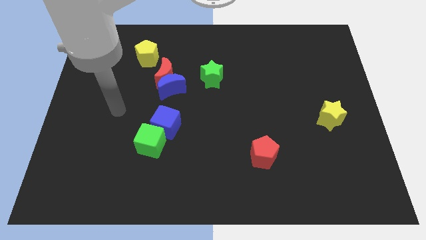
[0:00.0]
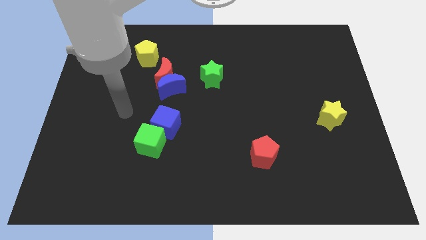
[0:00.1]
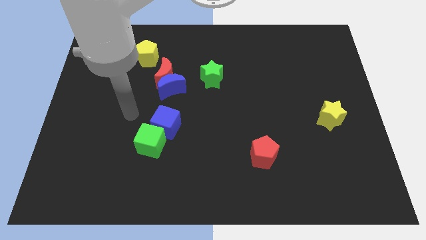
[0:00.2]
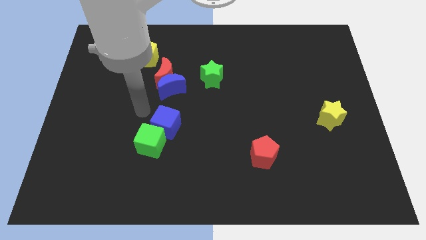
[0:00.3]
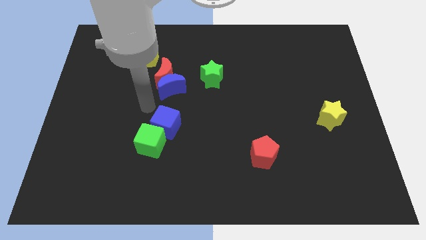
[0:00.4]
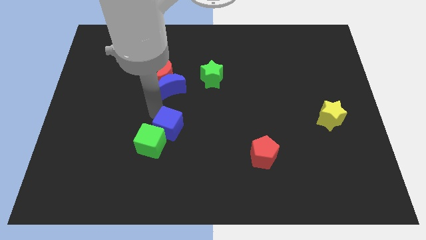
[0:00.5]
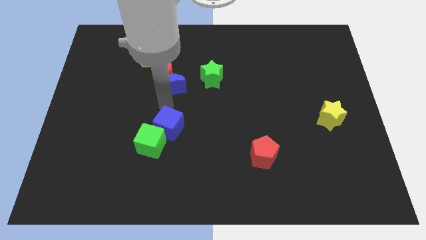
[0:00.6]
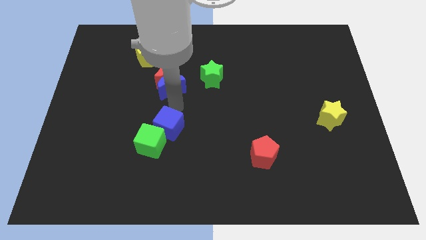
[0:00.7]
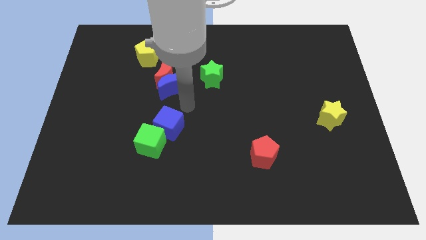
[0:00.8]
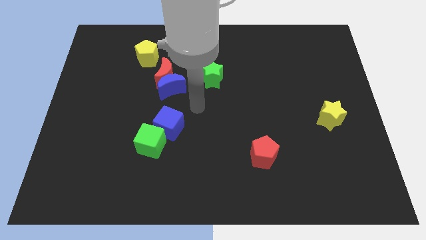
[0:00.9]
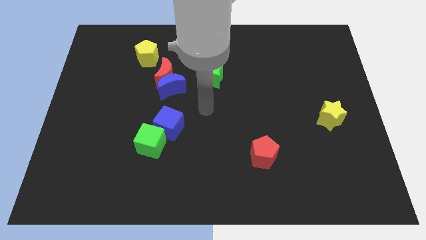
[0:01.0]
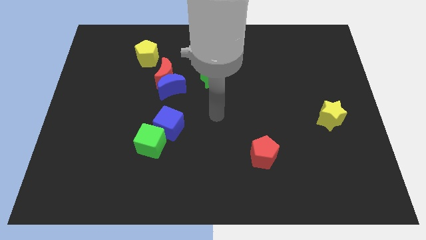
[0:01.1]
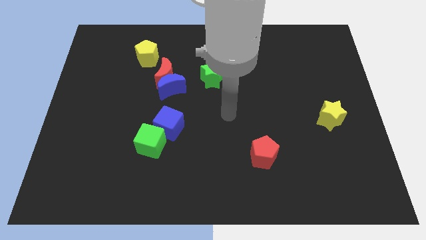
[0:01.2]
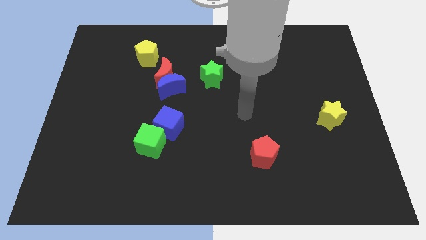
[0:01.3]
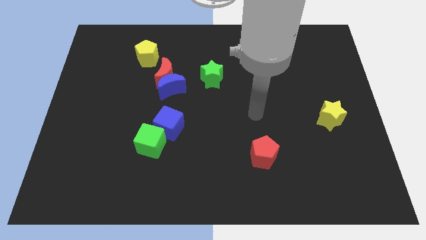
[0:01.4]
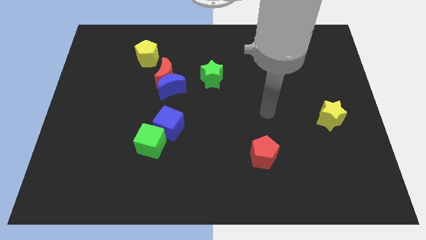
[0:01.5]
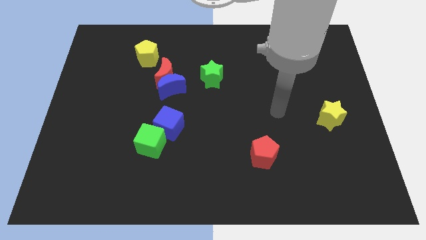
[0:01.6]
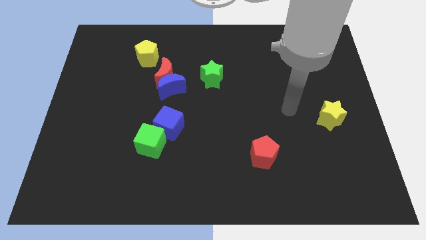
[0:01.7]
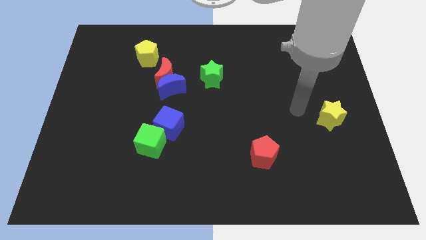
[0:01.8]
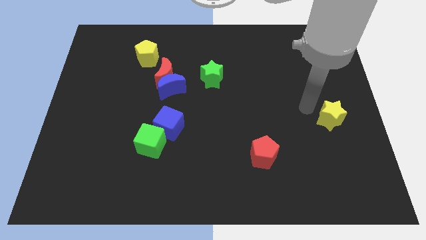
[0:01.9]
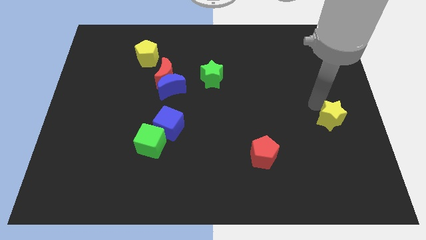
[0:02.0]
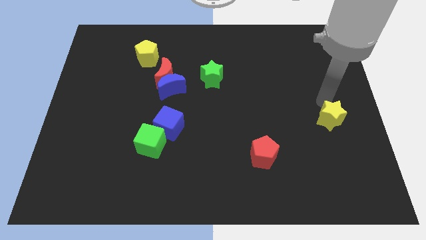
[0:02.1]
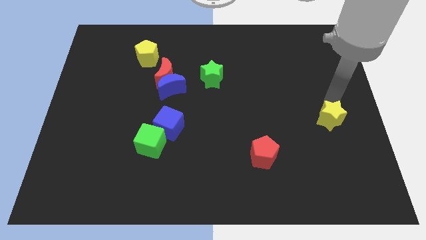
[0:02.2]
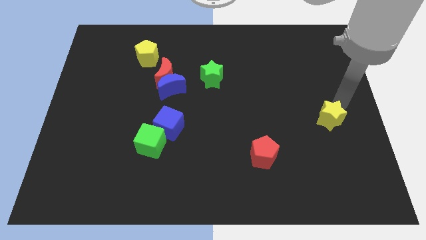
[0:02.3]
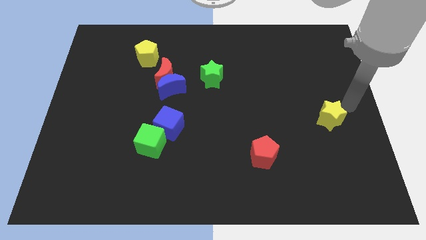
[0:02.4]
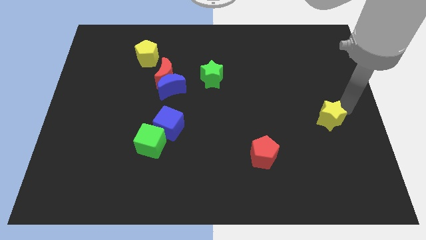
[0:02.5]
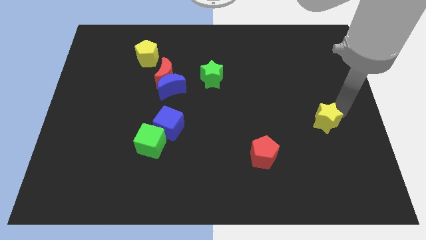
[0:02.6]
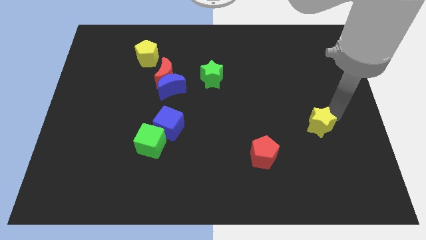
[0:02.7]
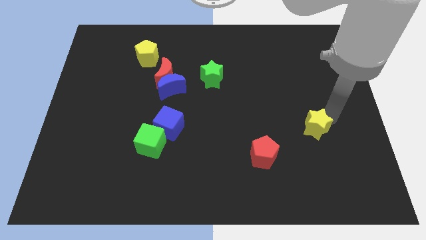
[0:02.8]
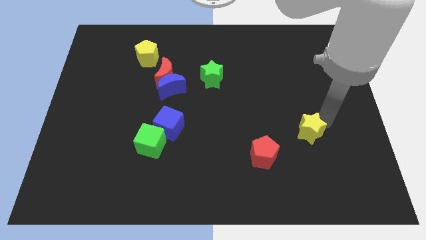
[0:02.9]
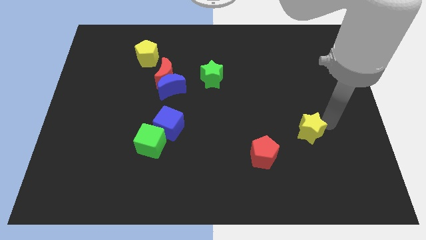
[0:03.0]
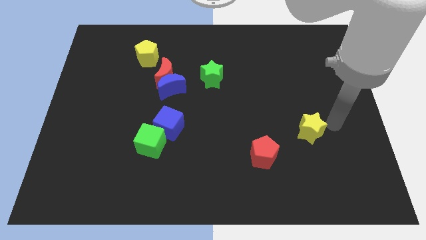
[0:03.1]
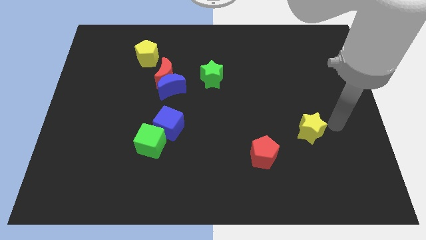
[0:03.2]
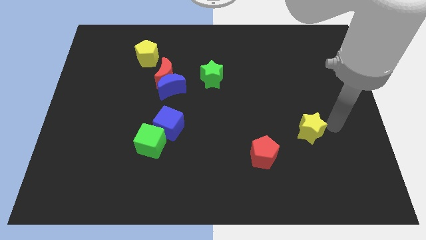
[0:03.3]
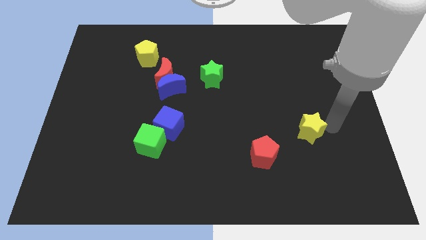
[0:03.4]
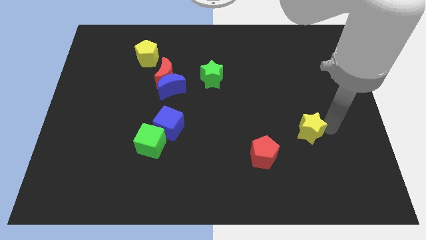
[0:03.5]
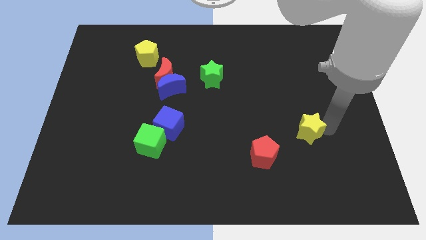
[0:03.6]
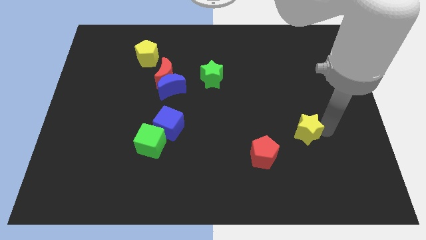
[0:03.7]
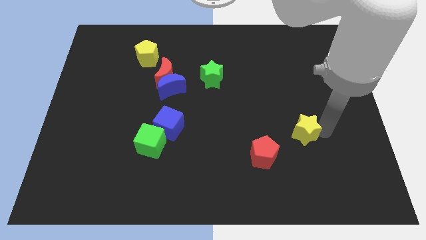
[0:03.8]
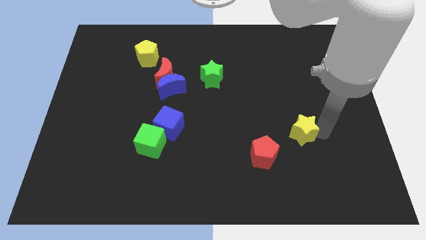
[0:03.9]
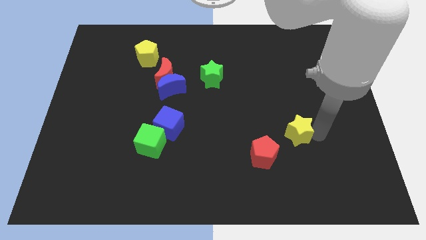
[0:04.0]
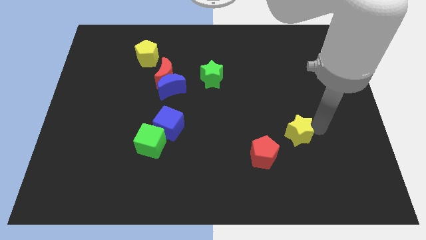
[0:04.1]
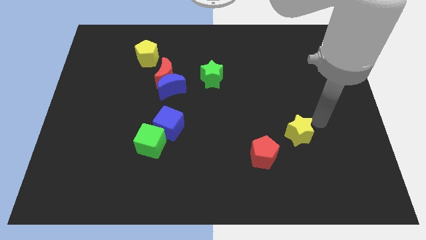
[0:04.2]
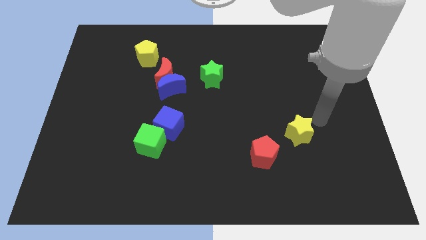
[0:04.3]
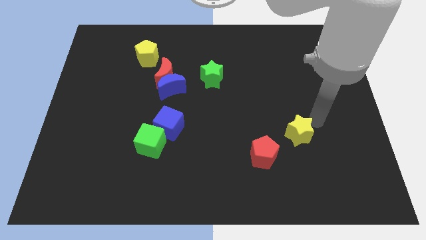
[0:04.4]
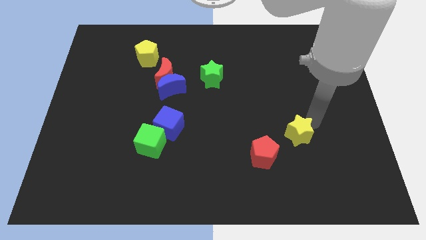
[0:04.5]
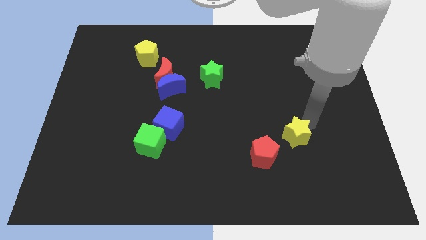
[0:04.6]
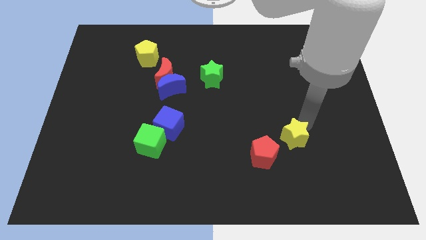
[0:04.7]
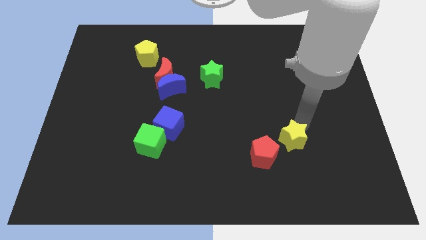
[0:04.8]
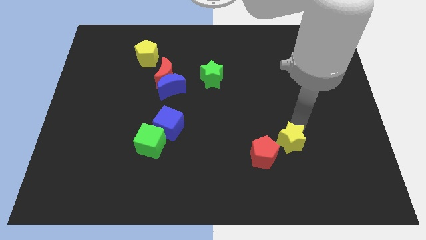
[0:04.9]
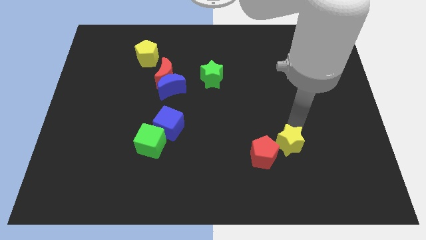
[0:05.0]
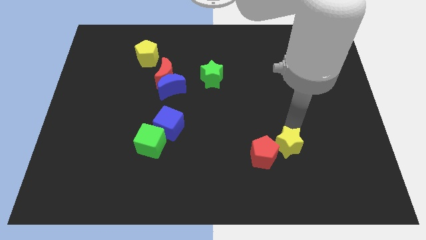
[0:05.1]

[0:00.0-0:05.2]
push the yellow star towards the red pentagon

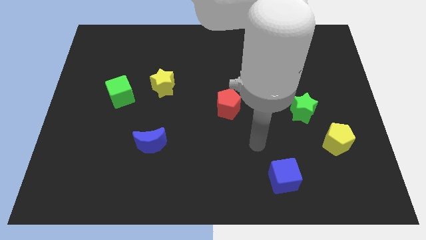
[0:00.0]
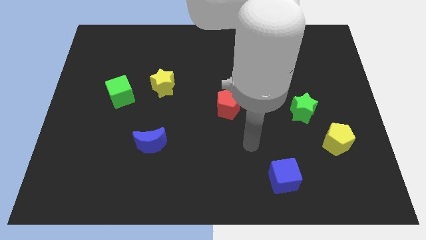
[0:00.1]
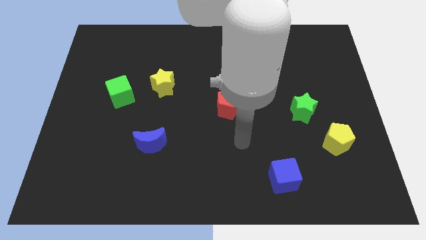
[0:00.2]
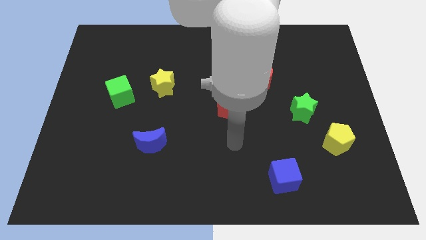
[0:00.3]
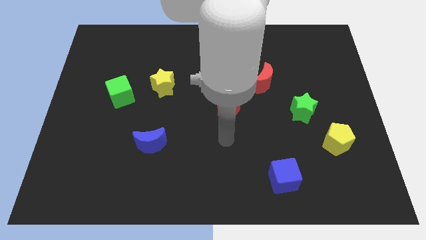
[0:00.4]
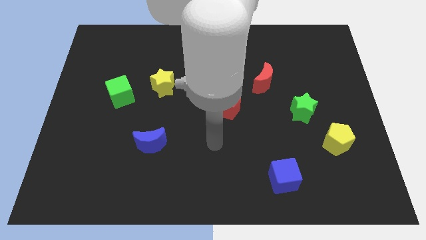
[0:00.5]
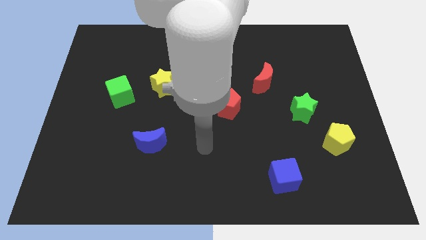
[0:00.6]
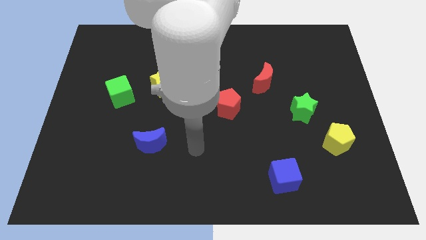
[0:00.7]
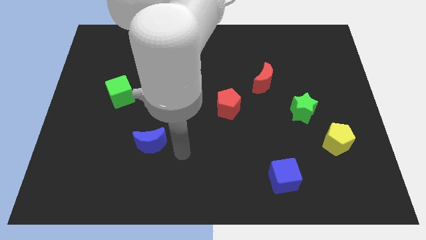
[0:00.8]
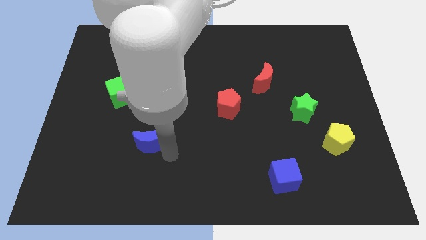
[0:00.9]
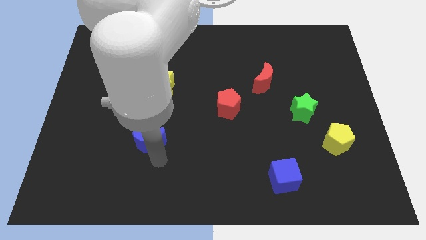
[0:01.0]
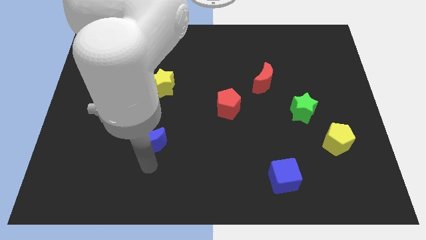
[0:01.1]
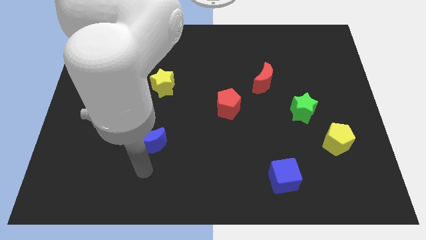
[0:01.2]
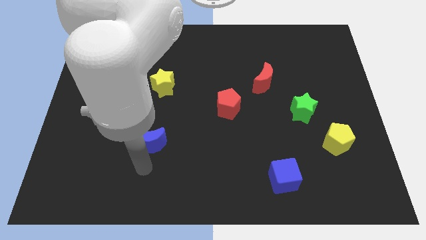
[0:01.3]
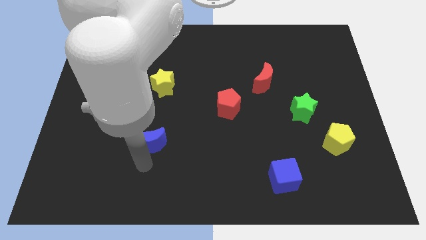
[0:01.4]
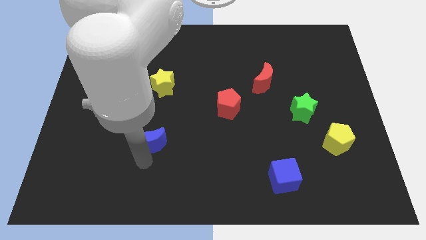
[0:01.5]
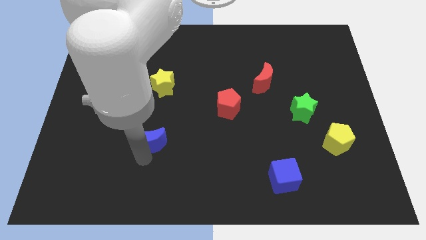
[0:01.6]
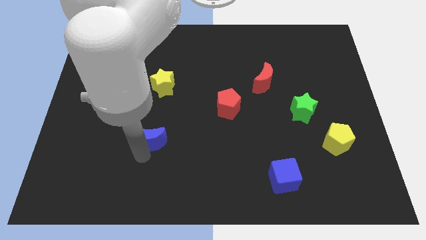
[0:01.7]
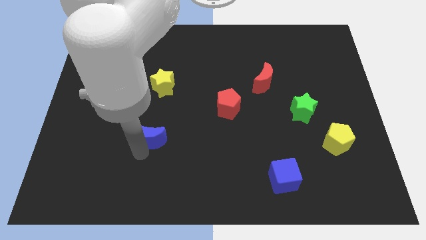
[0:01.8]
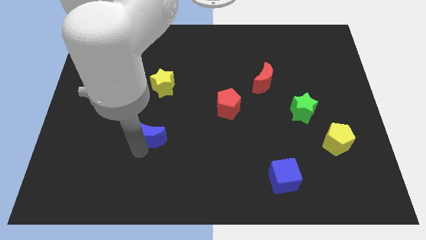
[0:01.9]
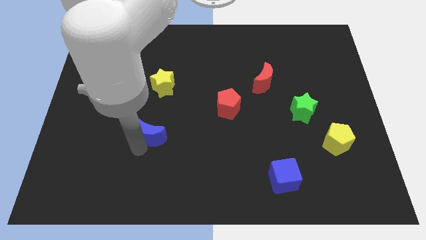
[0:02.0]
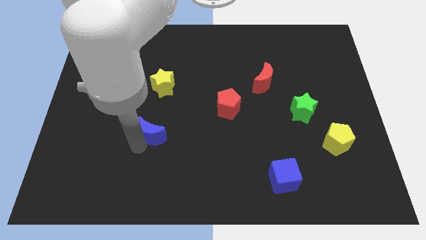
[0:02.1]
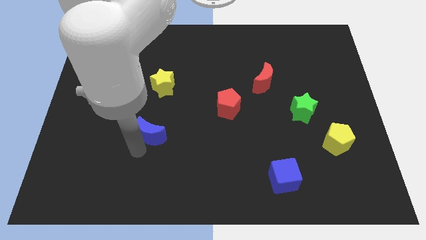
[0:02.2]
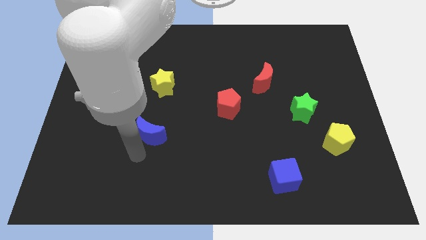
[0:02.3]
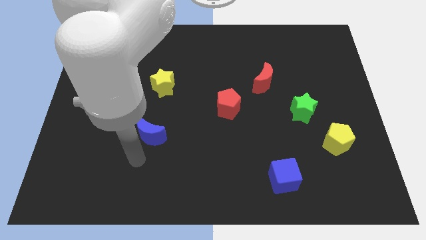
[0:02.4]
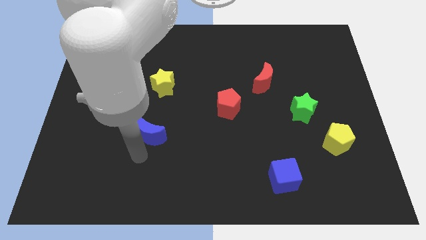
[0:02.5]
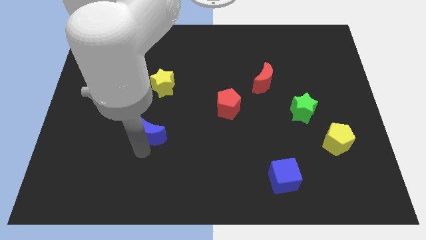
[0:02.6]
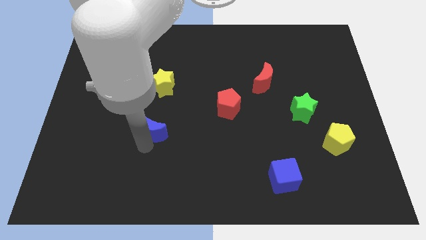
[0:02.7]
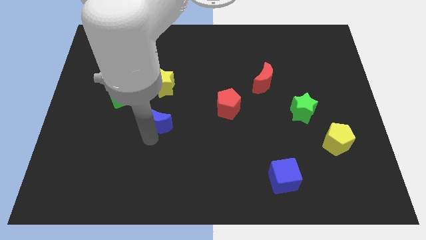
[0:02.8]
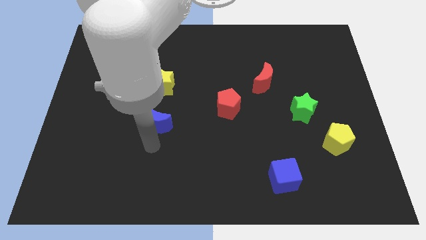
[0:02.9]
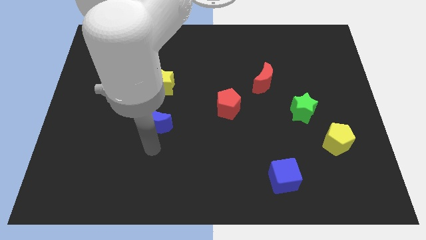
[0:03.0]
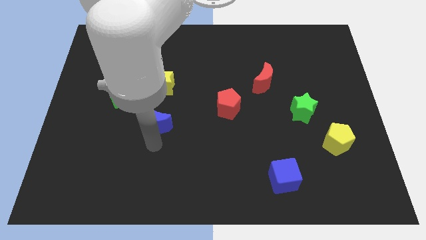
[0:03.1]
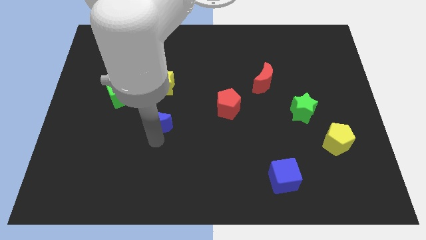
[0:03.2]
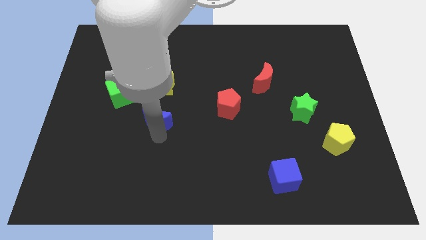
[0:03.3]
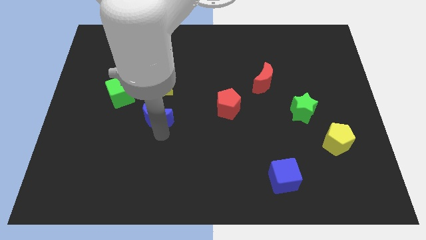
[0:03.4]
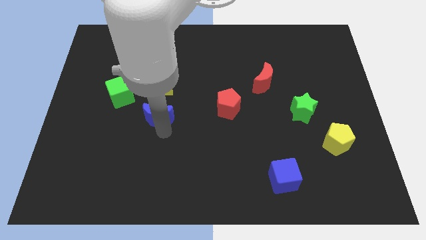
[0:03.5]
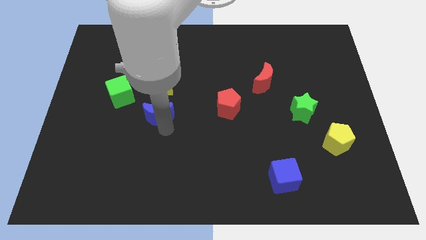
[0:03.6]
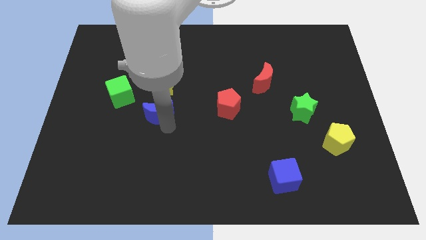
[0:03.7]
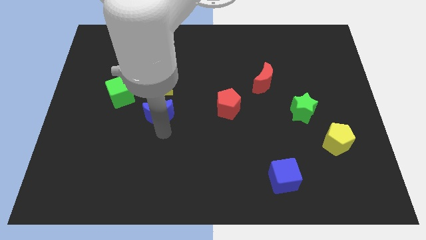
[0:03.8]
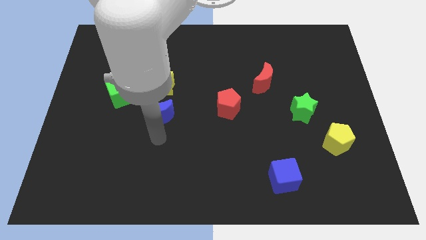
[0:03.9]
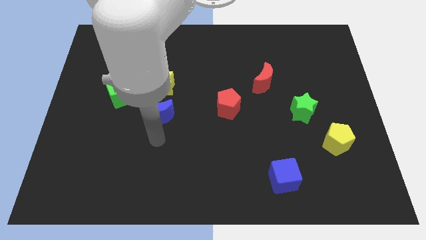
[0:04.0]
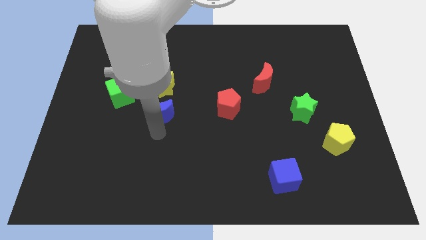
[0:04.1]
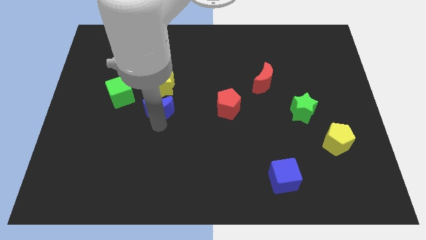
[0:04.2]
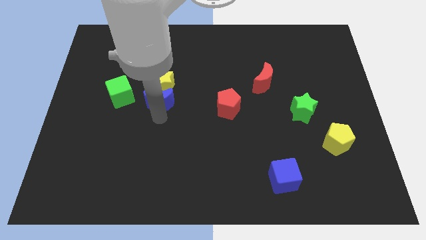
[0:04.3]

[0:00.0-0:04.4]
move the blue moon towards the yellow star
